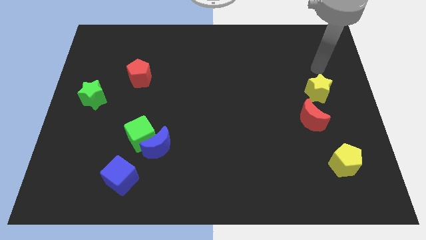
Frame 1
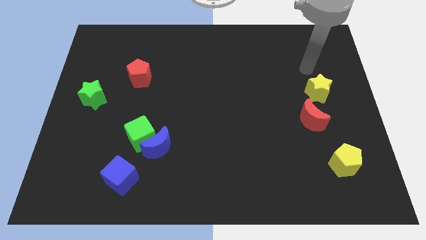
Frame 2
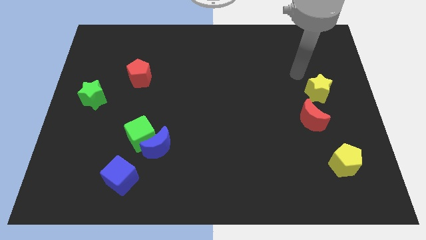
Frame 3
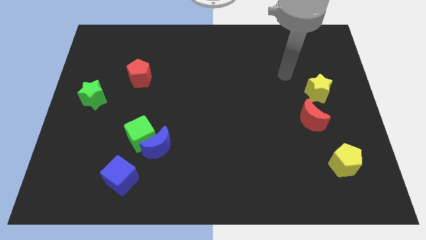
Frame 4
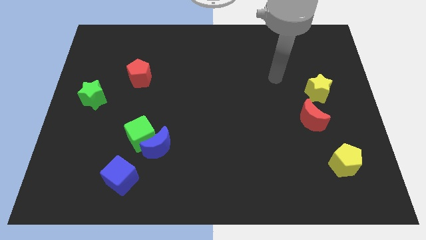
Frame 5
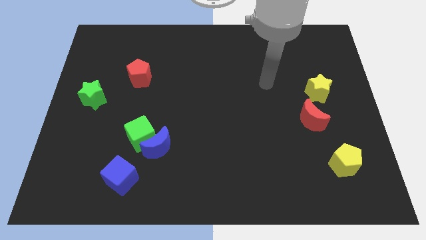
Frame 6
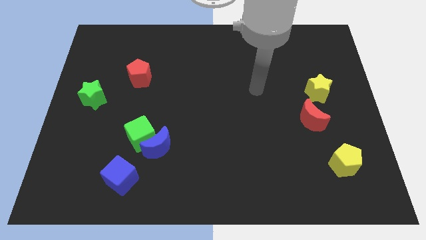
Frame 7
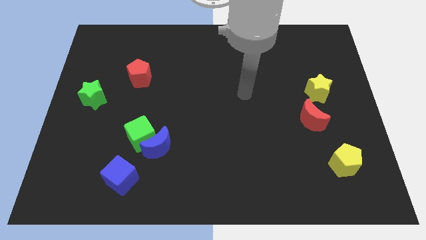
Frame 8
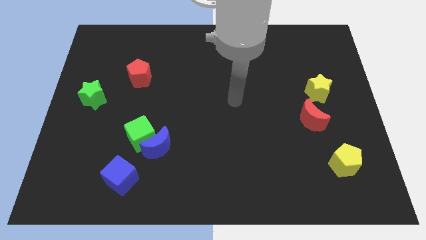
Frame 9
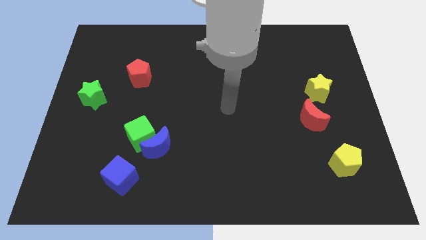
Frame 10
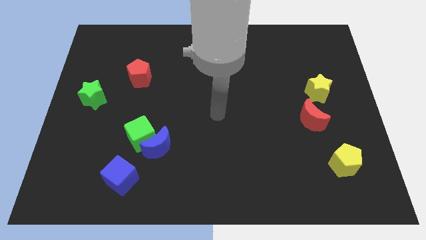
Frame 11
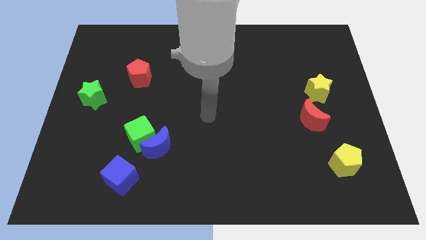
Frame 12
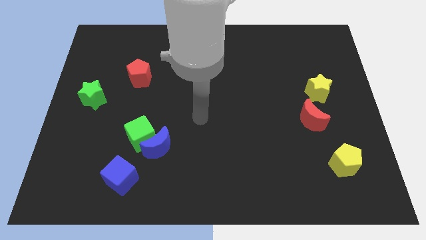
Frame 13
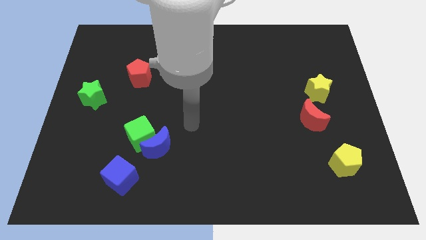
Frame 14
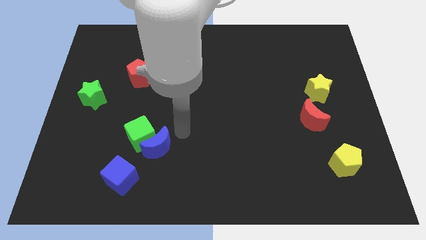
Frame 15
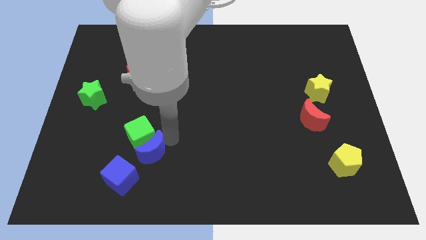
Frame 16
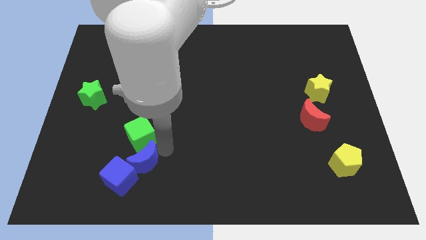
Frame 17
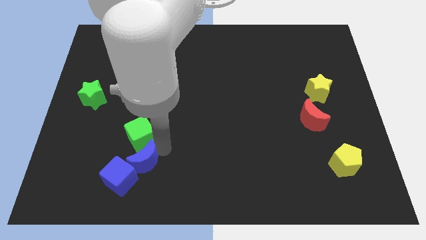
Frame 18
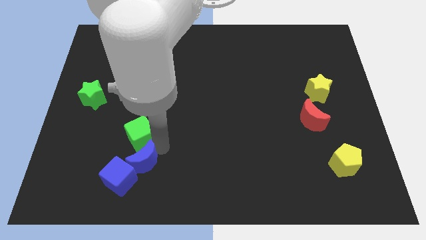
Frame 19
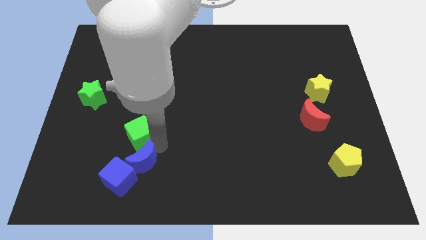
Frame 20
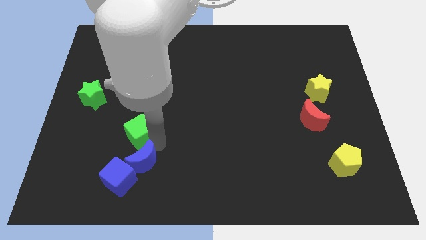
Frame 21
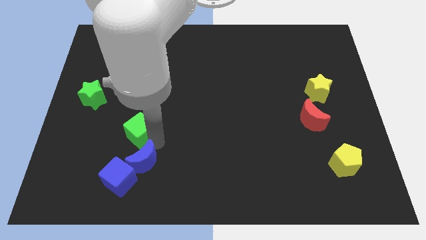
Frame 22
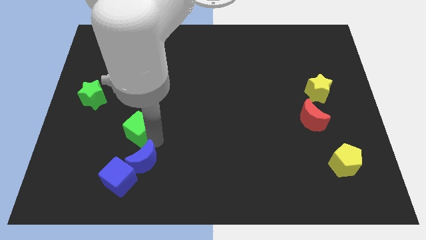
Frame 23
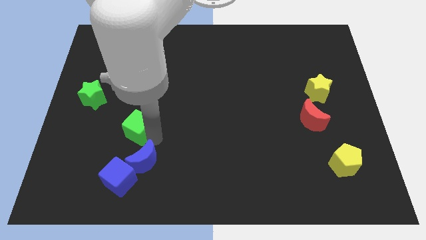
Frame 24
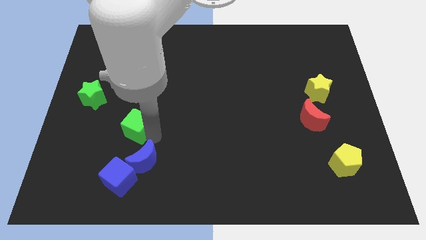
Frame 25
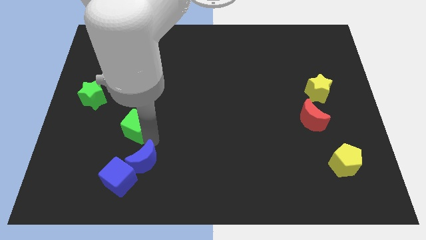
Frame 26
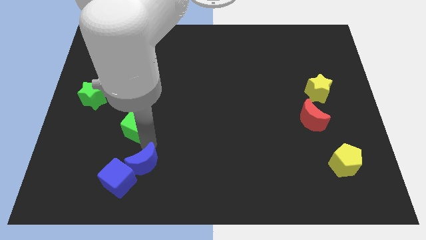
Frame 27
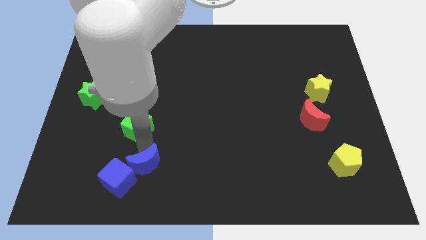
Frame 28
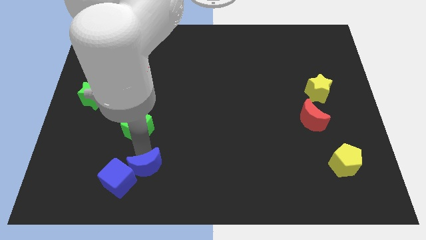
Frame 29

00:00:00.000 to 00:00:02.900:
move the green cube away from the blue moon

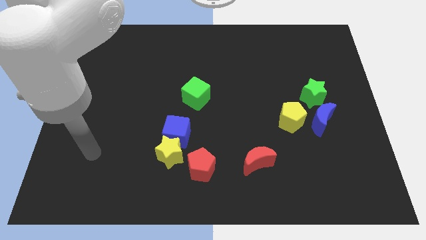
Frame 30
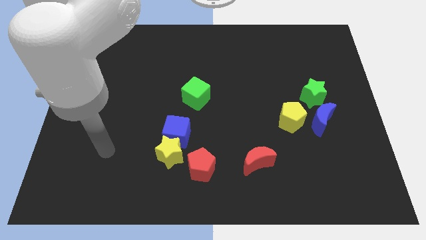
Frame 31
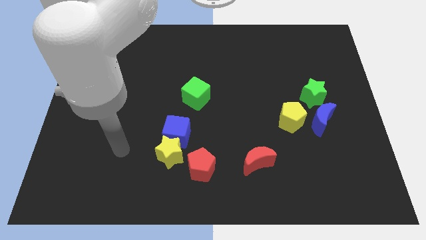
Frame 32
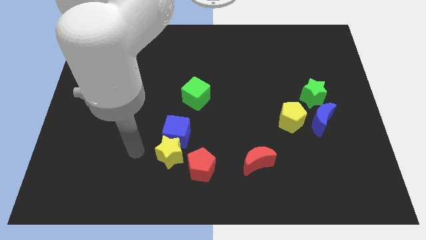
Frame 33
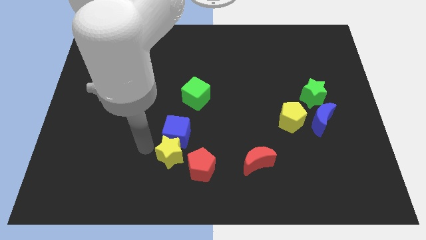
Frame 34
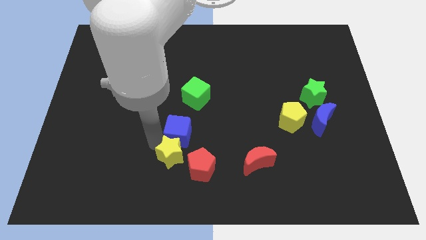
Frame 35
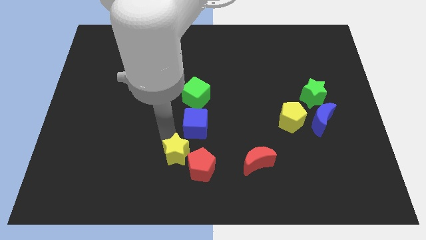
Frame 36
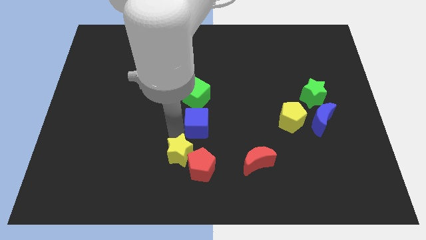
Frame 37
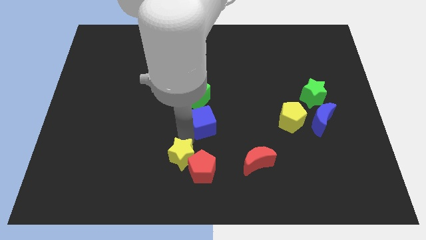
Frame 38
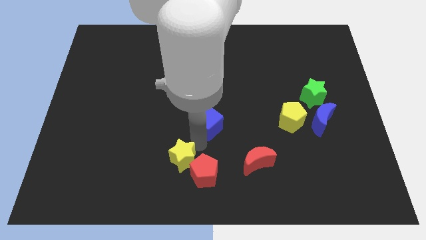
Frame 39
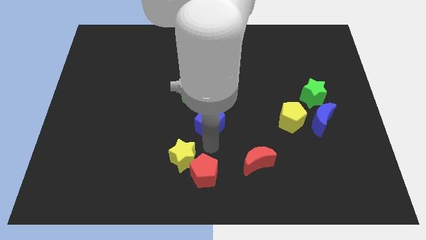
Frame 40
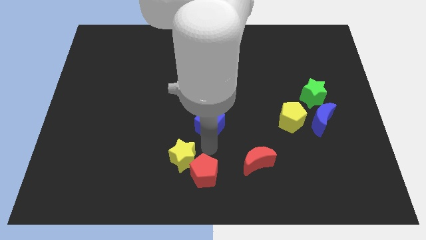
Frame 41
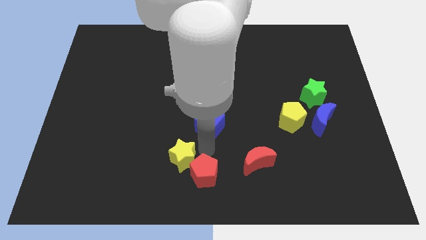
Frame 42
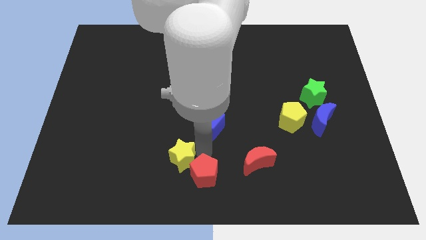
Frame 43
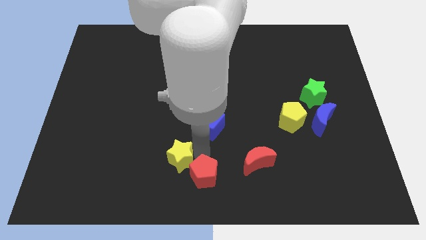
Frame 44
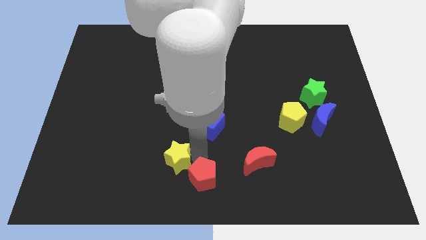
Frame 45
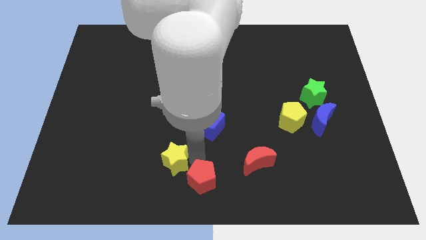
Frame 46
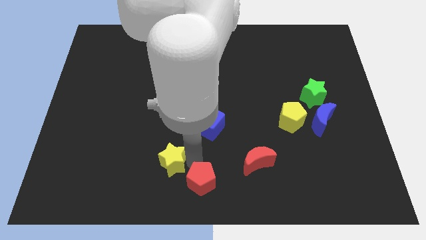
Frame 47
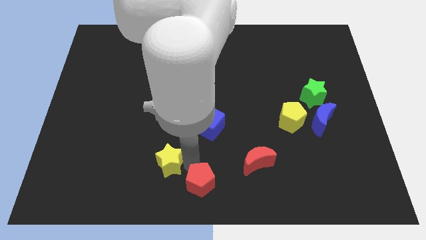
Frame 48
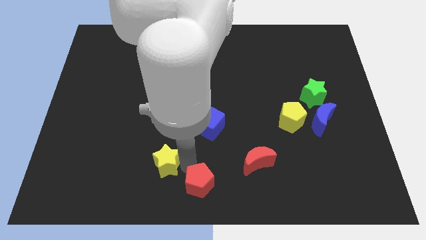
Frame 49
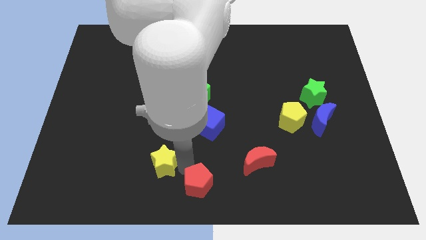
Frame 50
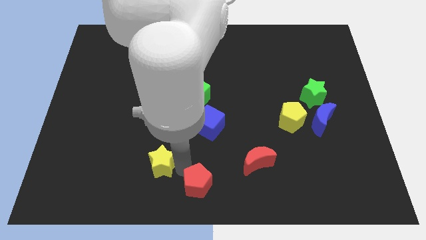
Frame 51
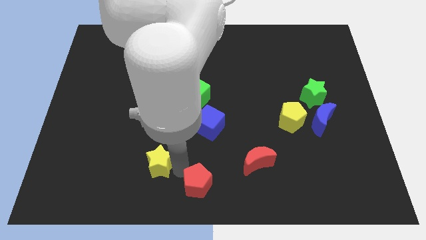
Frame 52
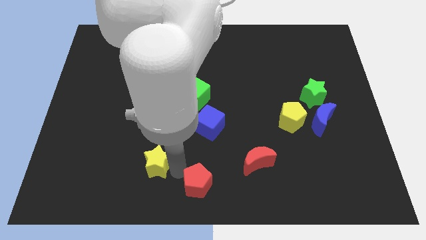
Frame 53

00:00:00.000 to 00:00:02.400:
move the yellow star away from the blue cube and red pentagon

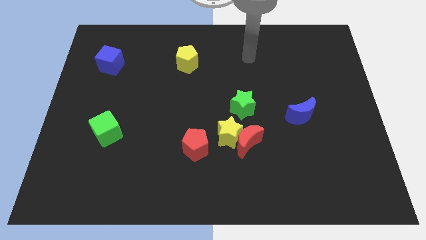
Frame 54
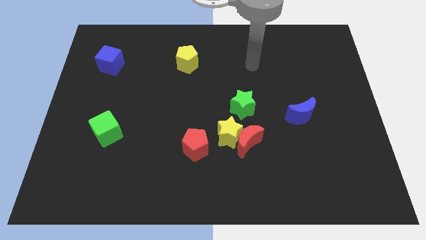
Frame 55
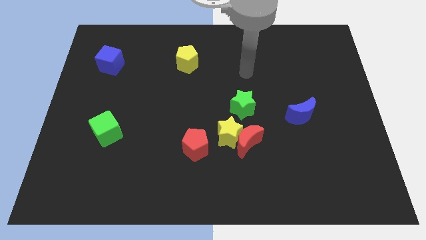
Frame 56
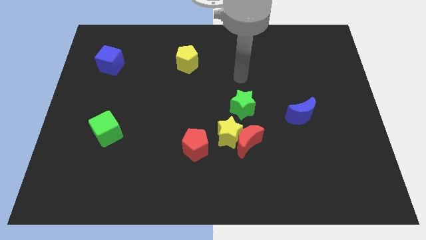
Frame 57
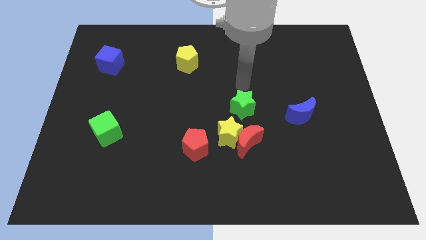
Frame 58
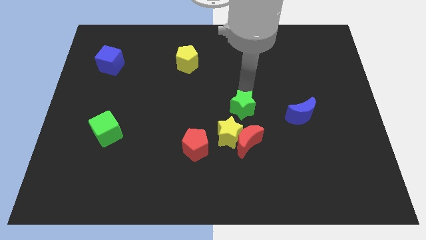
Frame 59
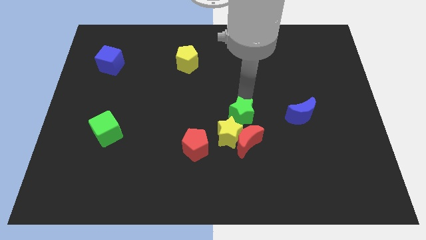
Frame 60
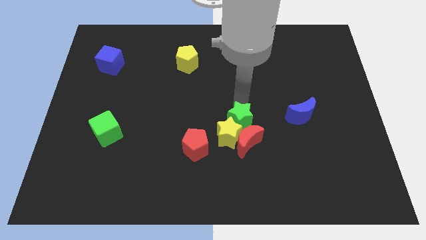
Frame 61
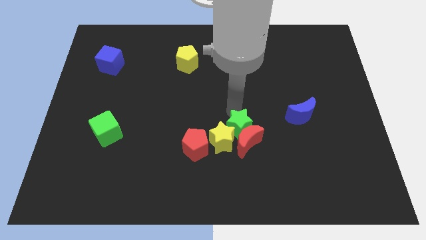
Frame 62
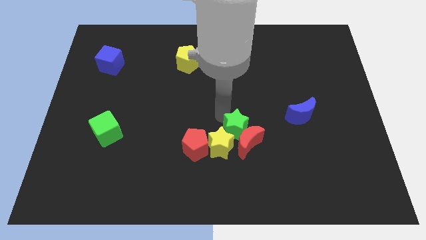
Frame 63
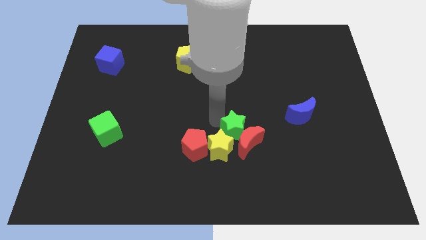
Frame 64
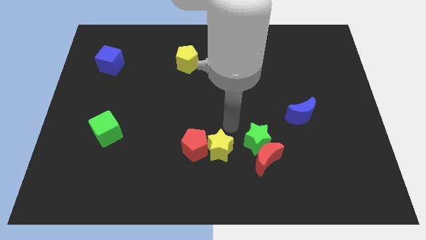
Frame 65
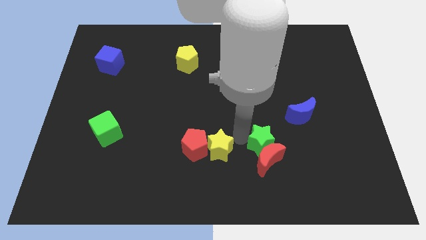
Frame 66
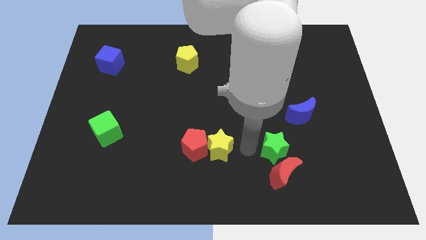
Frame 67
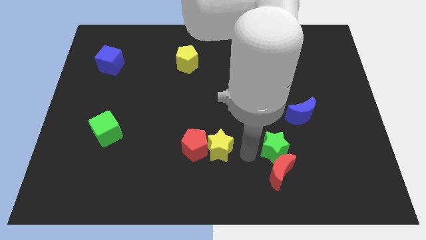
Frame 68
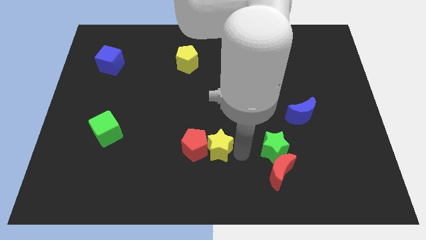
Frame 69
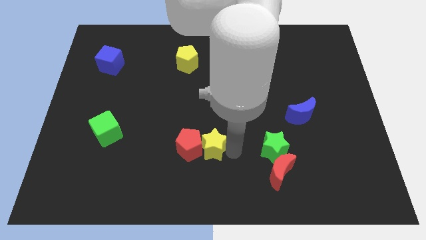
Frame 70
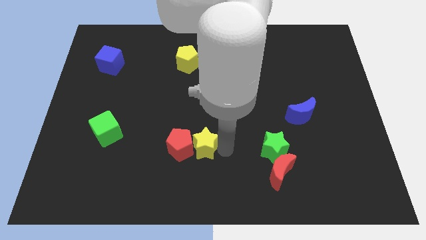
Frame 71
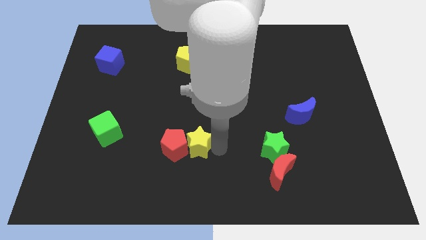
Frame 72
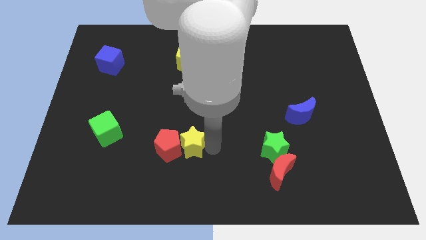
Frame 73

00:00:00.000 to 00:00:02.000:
move the yellow star away from the red moon, red pentagon, and green star

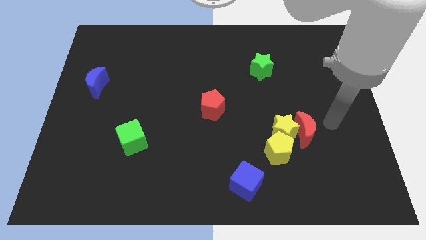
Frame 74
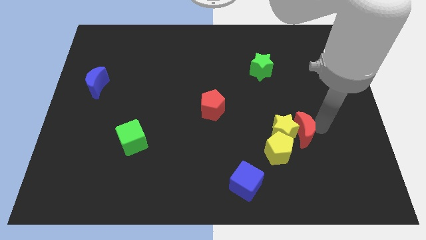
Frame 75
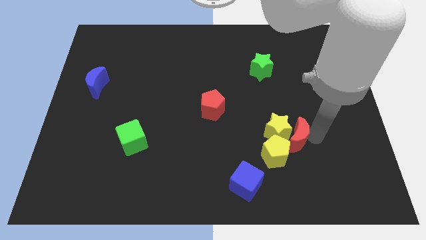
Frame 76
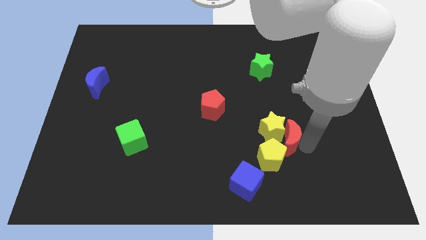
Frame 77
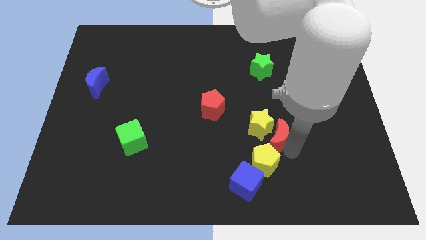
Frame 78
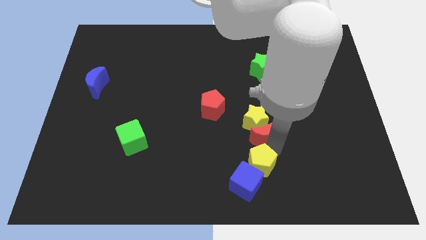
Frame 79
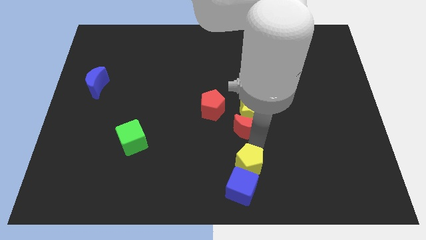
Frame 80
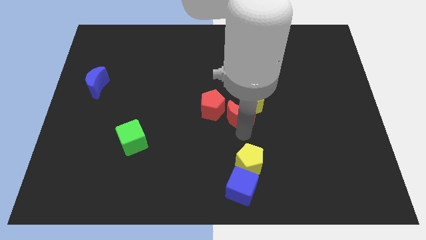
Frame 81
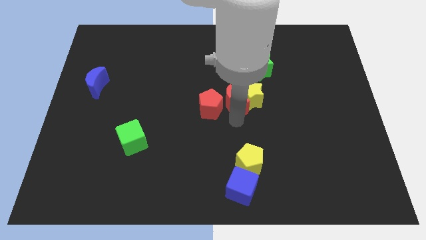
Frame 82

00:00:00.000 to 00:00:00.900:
move the yellow star away from the red moon and yellow pentagon

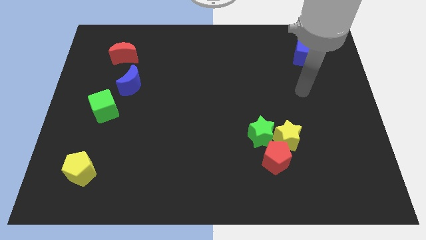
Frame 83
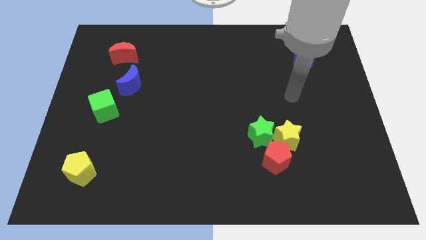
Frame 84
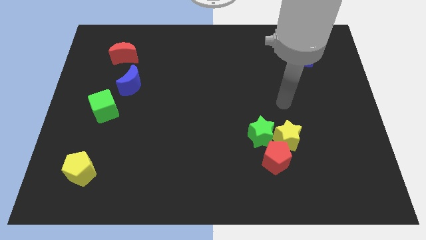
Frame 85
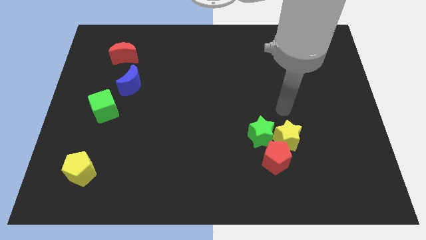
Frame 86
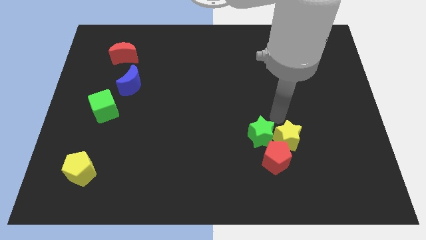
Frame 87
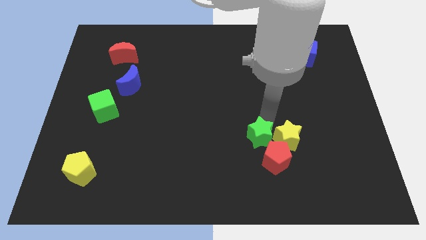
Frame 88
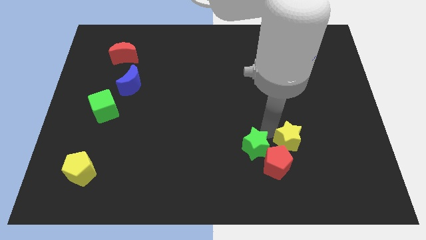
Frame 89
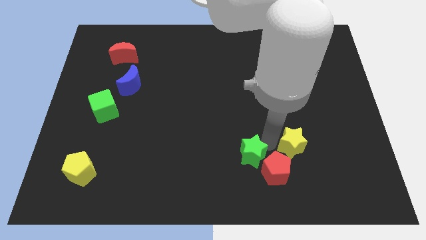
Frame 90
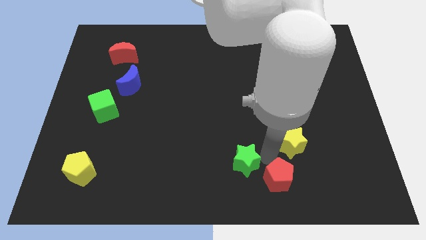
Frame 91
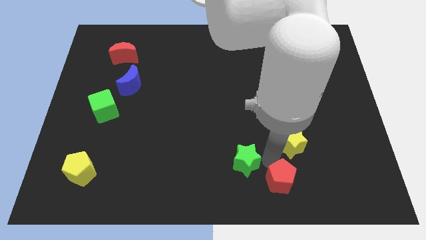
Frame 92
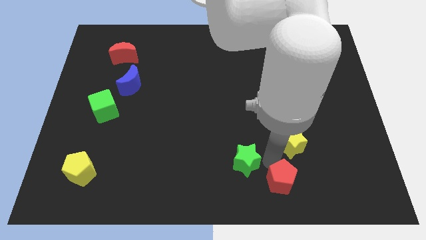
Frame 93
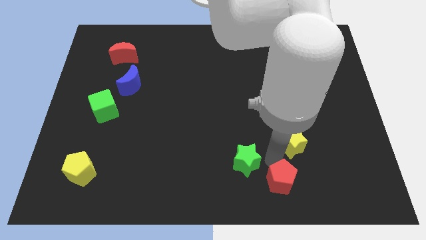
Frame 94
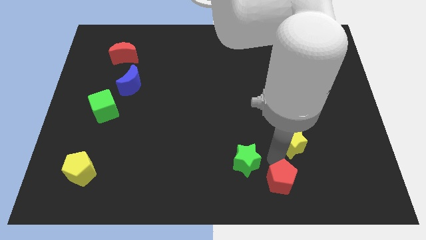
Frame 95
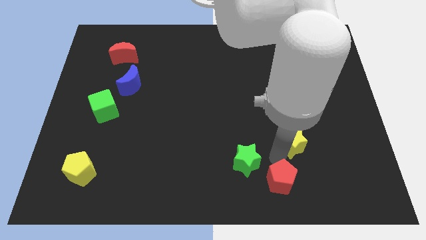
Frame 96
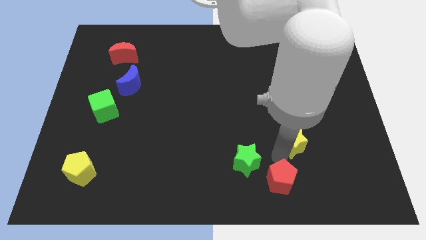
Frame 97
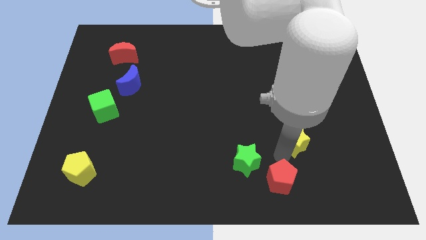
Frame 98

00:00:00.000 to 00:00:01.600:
separate the yellow star from the green star and red pentagon
